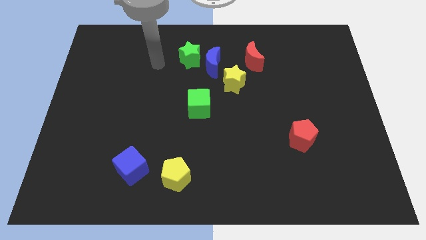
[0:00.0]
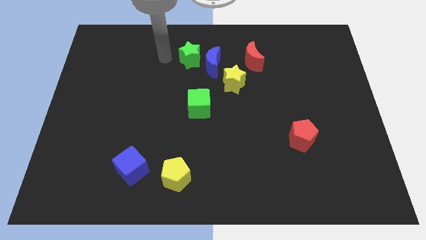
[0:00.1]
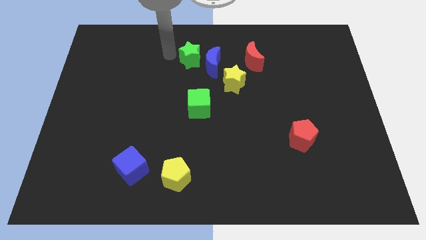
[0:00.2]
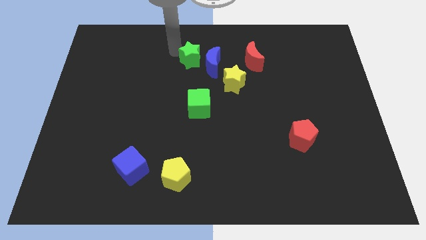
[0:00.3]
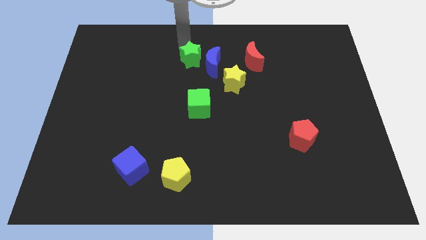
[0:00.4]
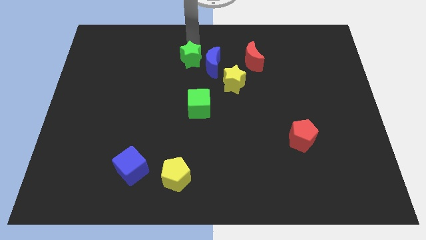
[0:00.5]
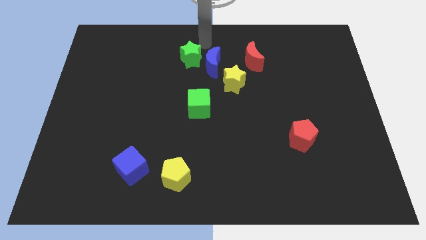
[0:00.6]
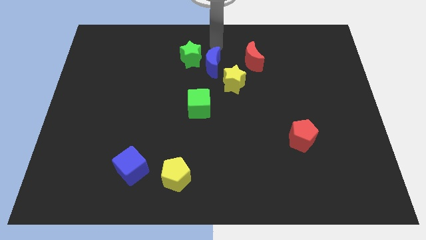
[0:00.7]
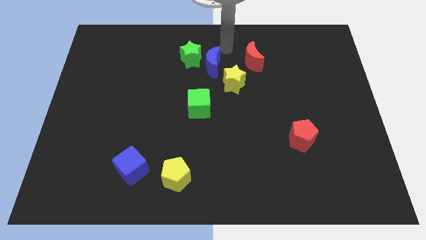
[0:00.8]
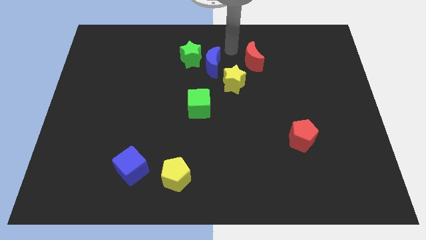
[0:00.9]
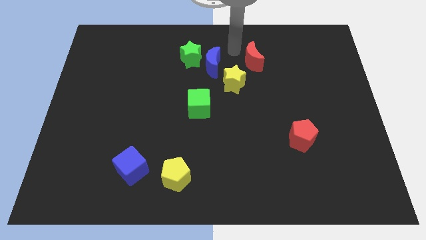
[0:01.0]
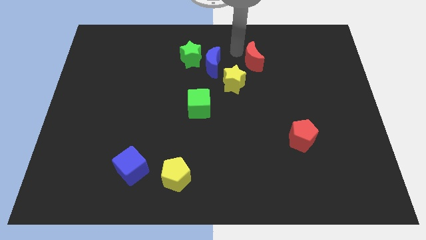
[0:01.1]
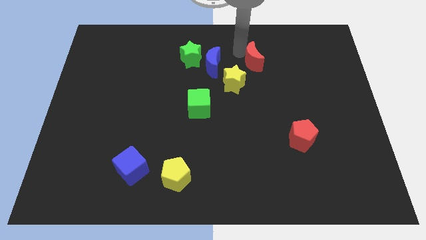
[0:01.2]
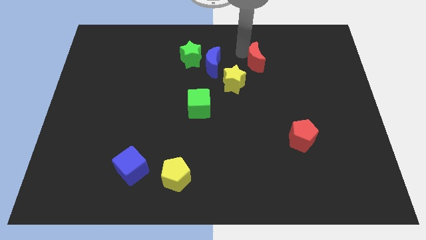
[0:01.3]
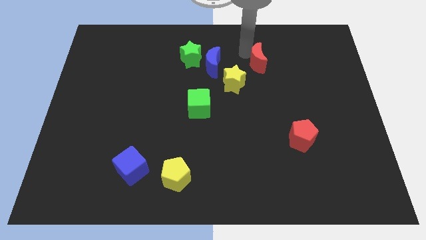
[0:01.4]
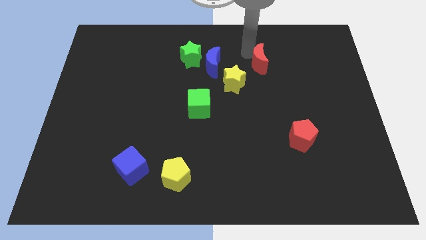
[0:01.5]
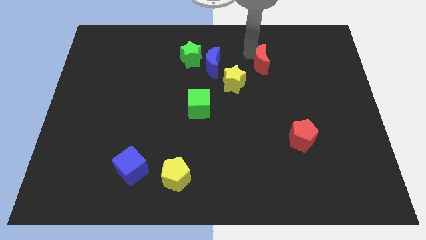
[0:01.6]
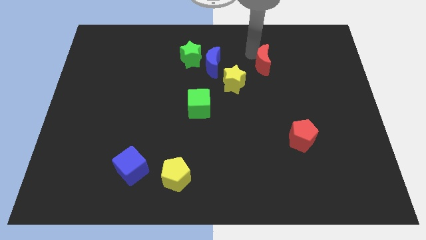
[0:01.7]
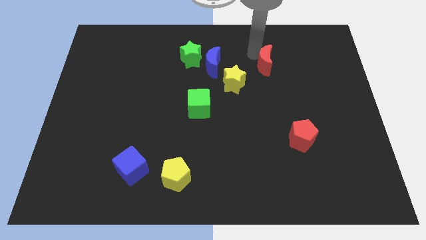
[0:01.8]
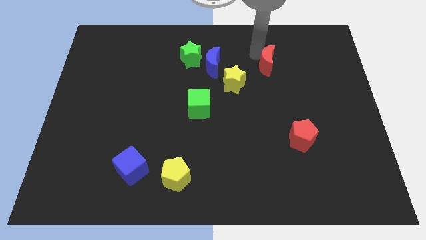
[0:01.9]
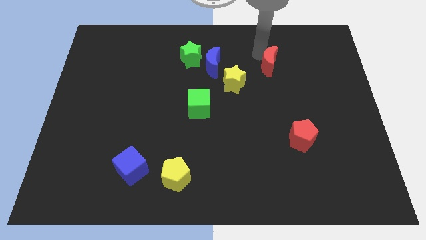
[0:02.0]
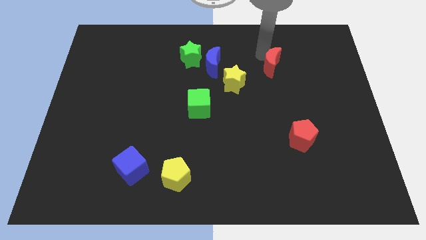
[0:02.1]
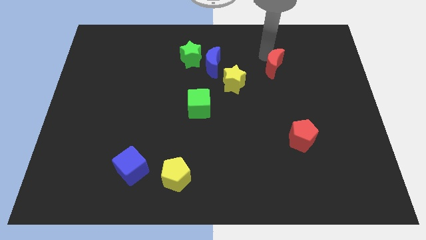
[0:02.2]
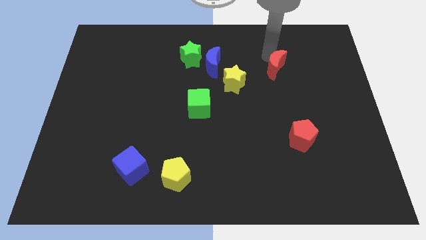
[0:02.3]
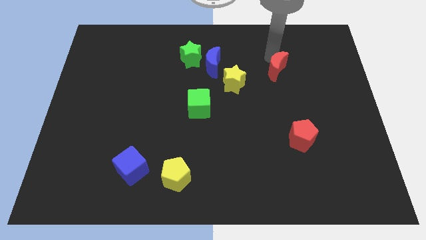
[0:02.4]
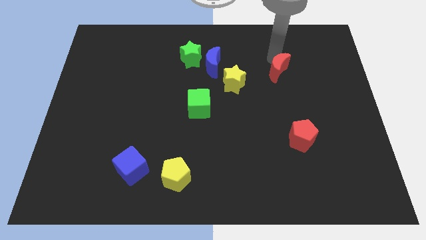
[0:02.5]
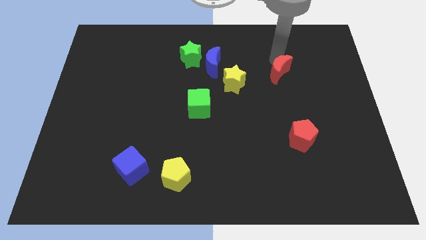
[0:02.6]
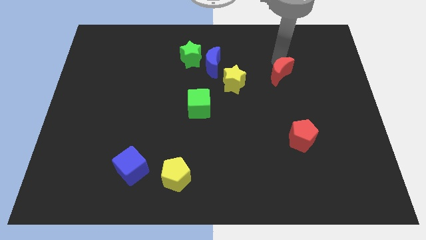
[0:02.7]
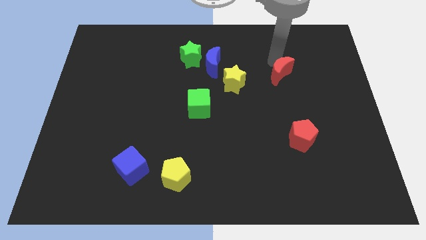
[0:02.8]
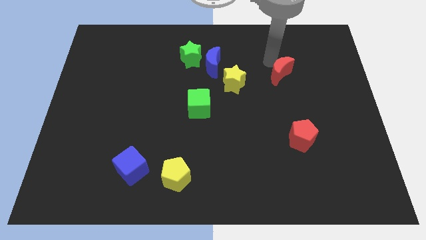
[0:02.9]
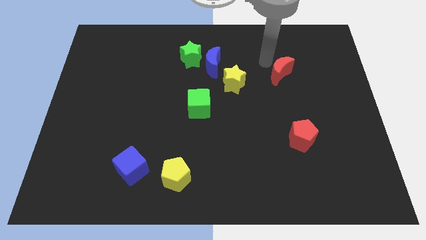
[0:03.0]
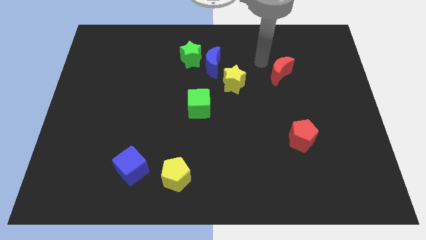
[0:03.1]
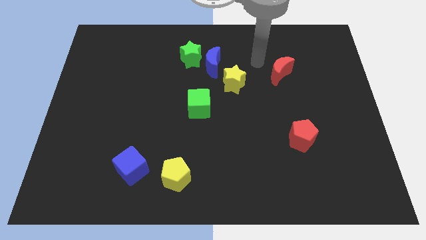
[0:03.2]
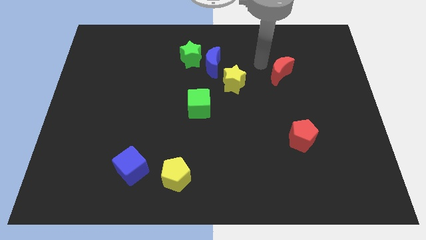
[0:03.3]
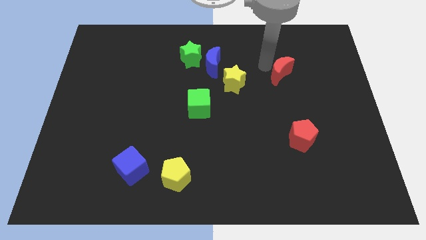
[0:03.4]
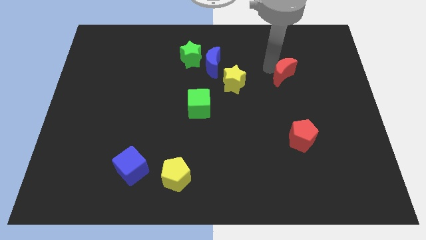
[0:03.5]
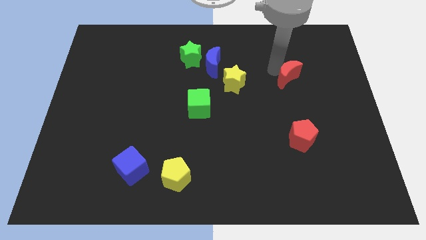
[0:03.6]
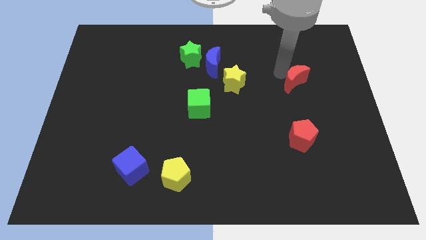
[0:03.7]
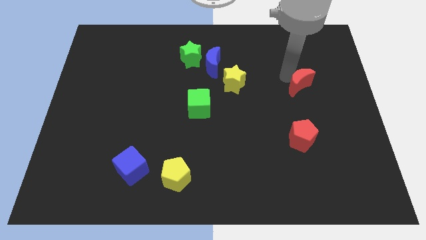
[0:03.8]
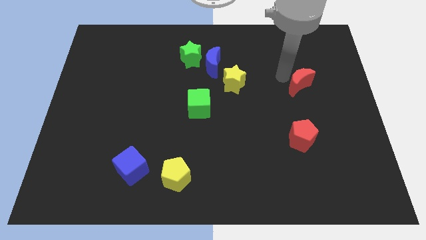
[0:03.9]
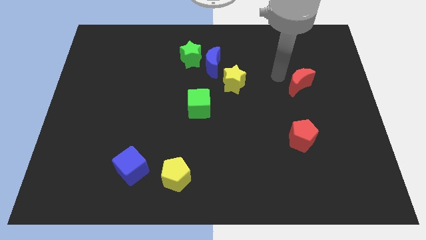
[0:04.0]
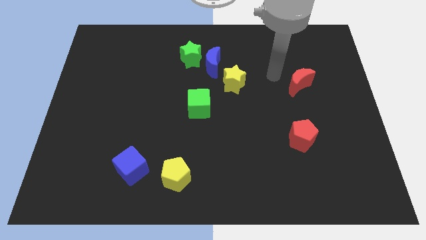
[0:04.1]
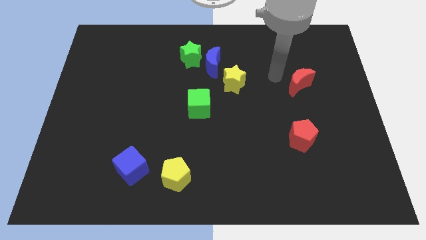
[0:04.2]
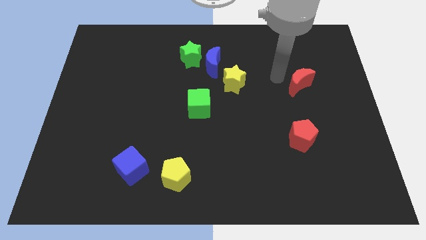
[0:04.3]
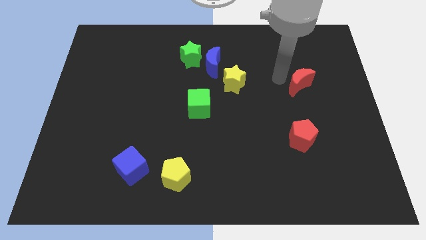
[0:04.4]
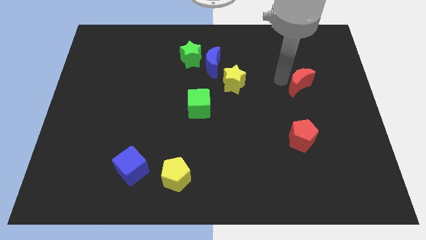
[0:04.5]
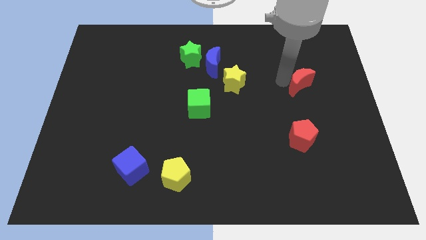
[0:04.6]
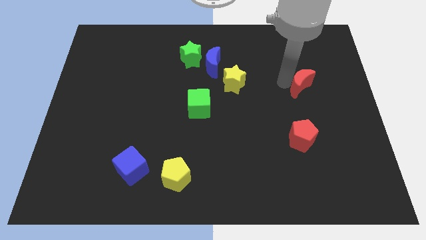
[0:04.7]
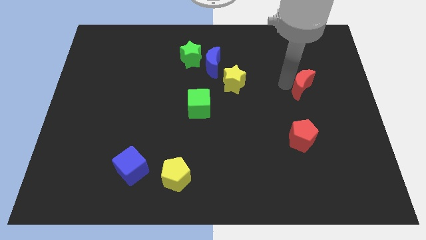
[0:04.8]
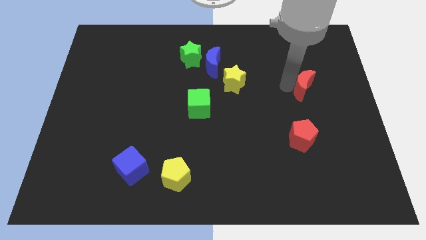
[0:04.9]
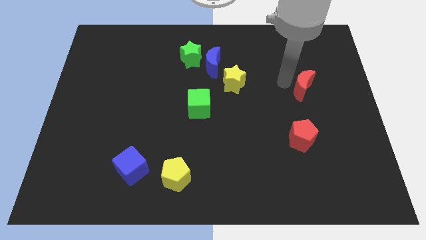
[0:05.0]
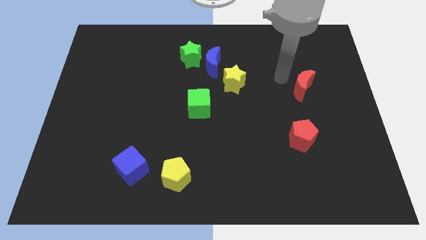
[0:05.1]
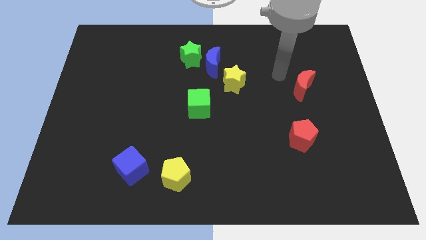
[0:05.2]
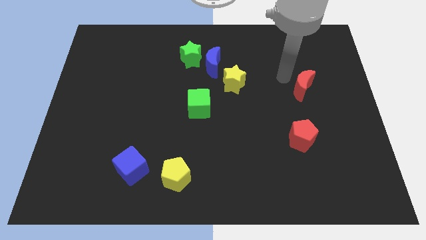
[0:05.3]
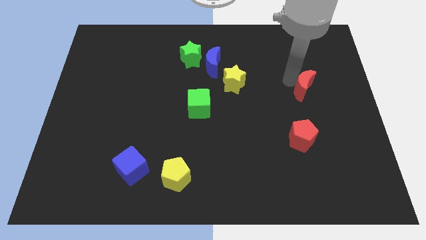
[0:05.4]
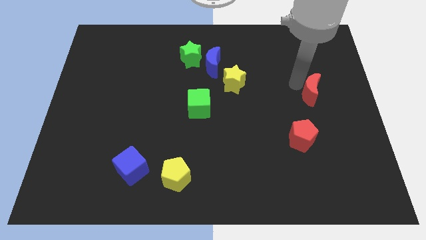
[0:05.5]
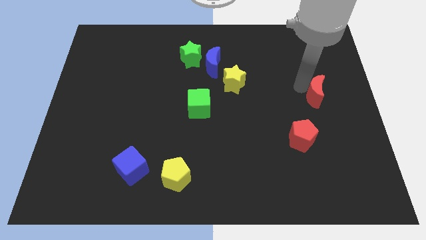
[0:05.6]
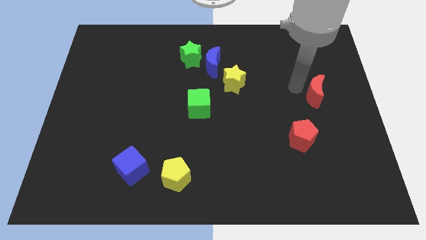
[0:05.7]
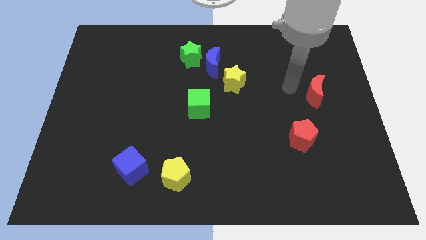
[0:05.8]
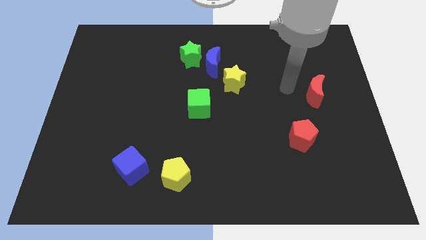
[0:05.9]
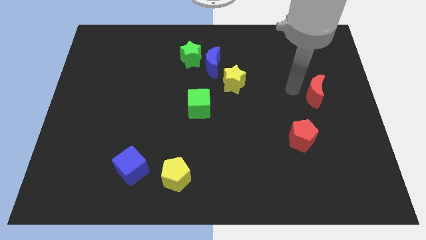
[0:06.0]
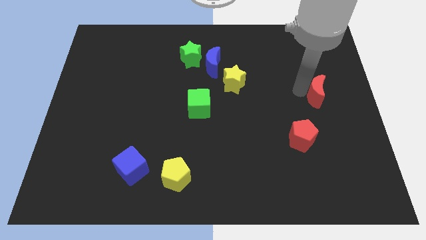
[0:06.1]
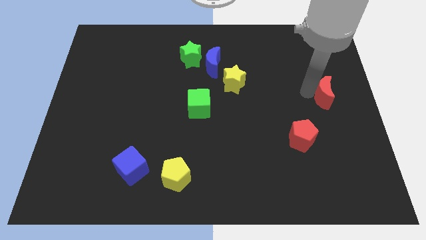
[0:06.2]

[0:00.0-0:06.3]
slide the red moon to the right side

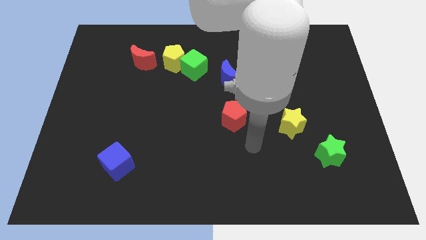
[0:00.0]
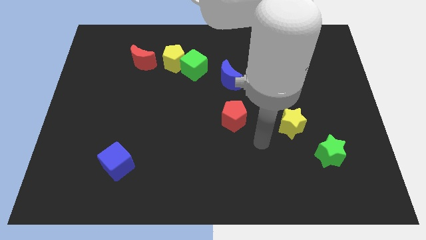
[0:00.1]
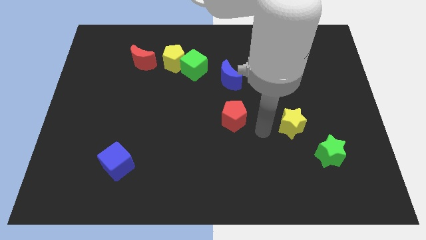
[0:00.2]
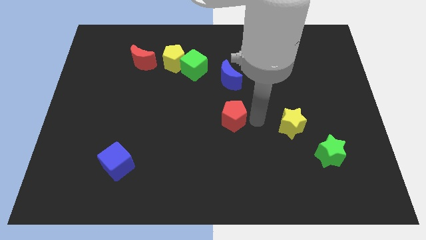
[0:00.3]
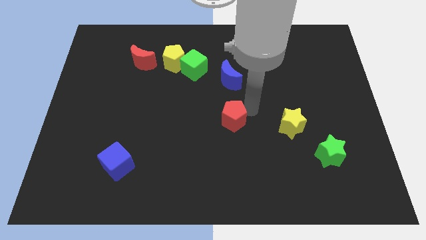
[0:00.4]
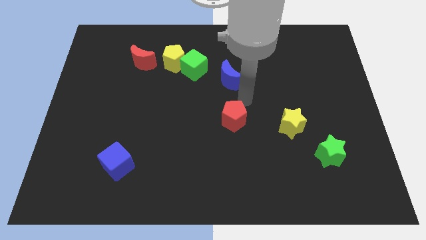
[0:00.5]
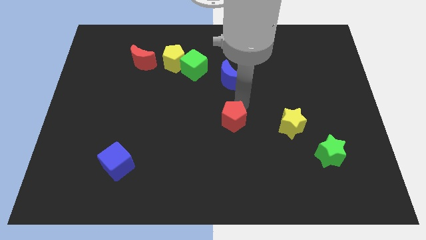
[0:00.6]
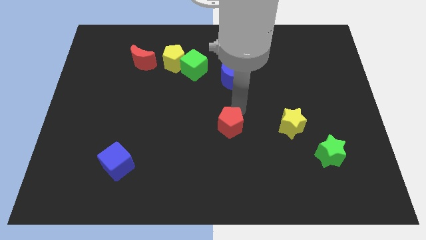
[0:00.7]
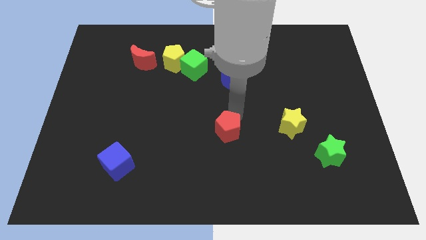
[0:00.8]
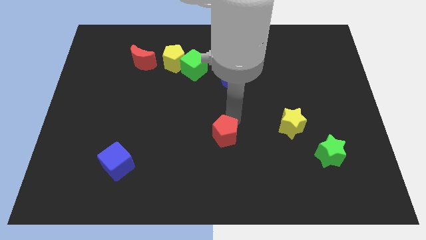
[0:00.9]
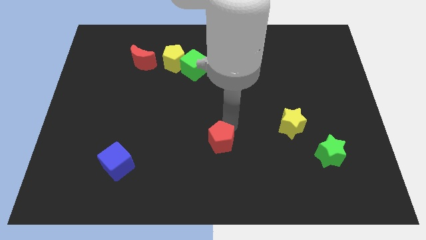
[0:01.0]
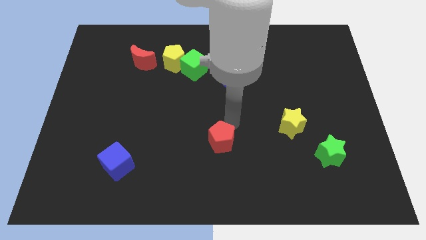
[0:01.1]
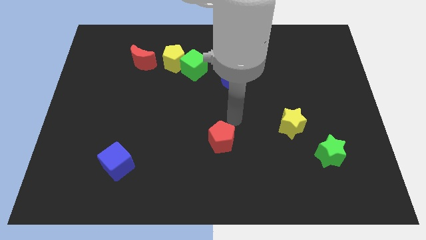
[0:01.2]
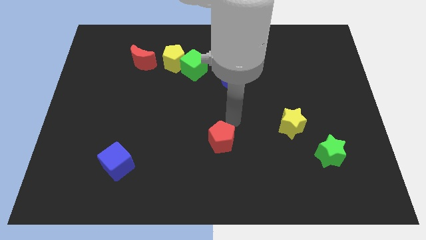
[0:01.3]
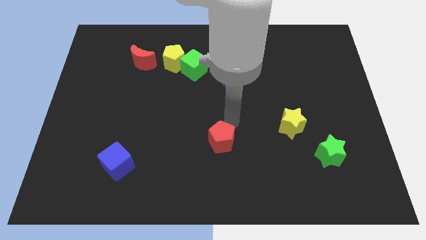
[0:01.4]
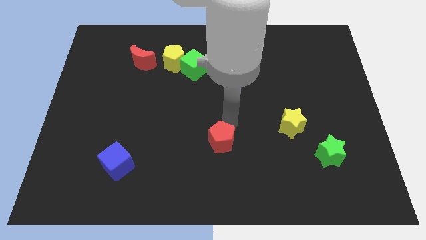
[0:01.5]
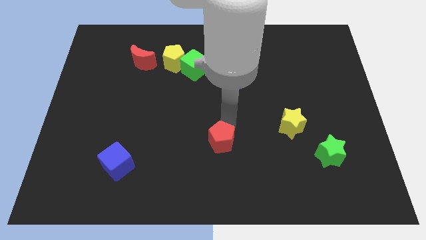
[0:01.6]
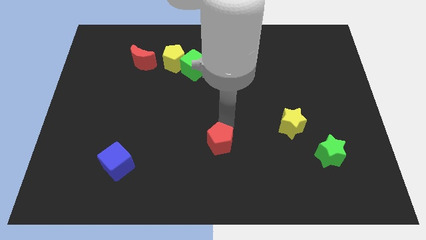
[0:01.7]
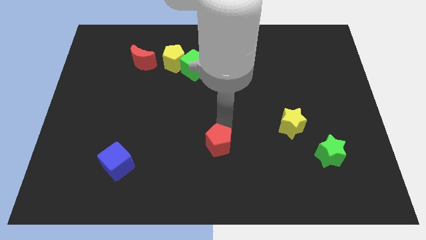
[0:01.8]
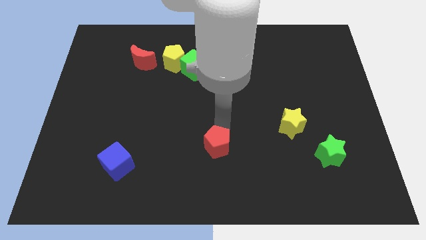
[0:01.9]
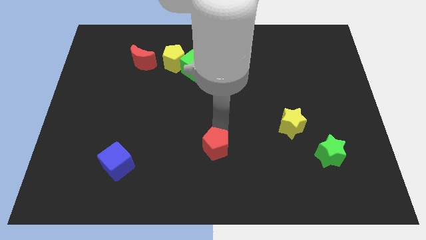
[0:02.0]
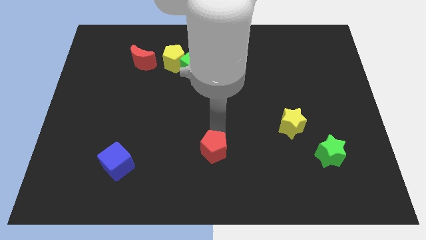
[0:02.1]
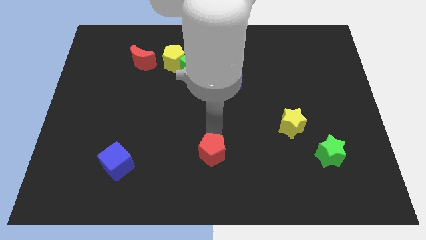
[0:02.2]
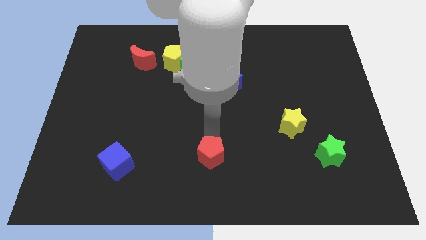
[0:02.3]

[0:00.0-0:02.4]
put the red pentagon to the bottom side
